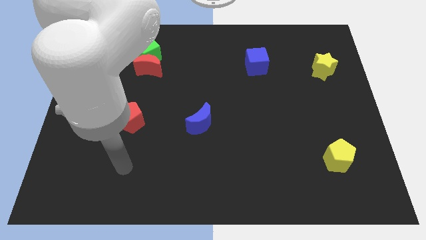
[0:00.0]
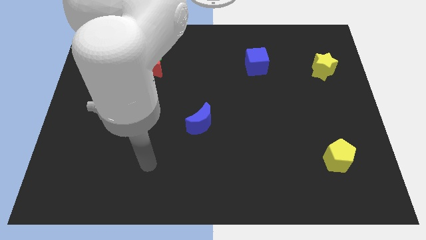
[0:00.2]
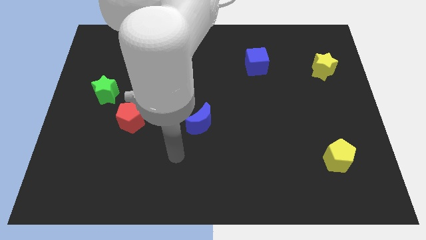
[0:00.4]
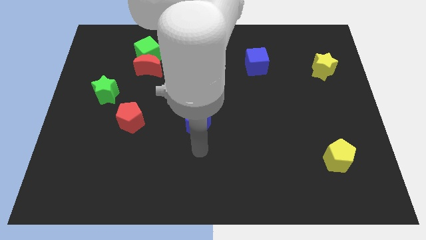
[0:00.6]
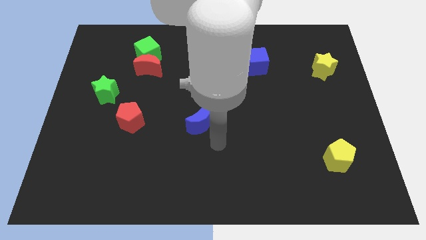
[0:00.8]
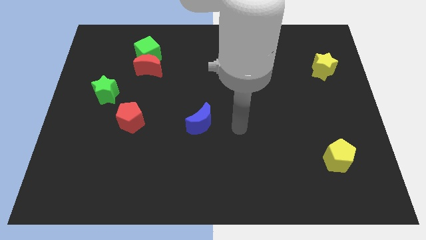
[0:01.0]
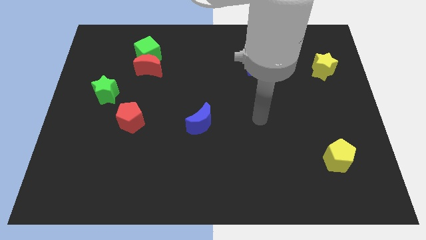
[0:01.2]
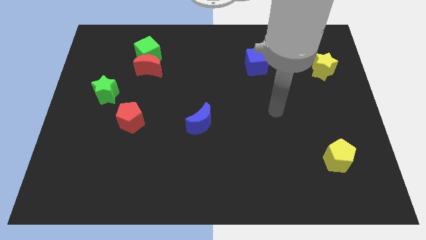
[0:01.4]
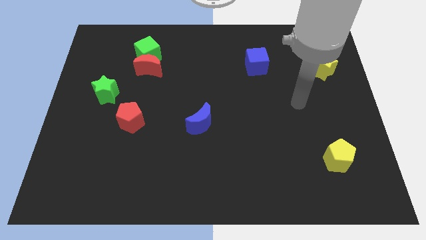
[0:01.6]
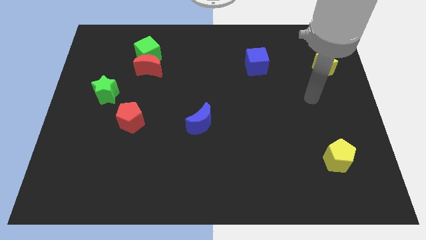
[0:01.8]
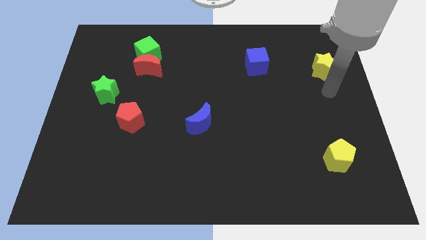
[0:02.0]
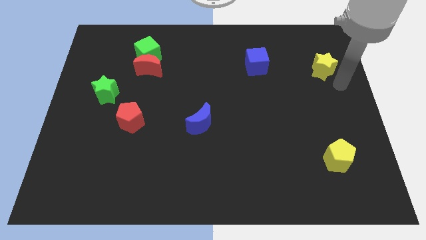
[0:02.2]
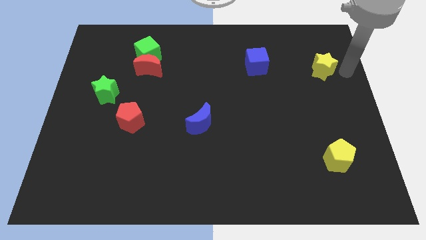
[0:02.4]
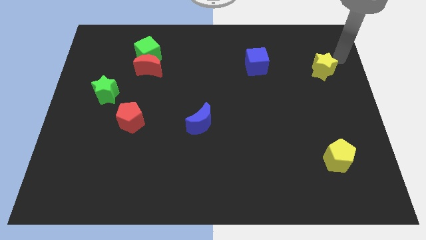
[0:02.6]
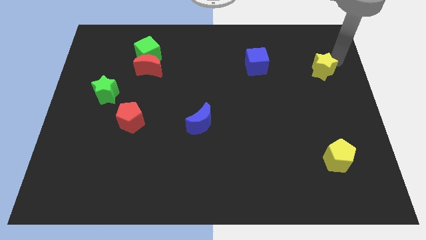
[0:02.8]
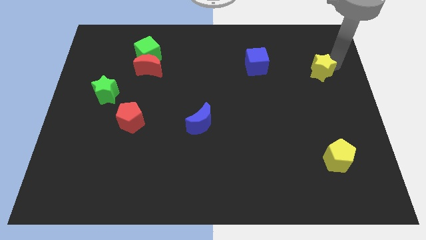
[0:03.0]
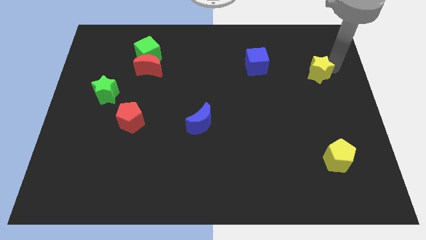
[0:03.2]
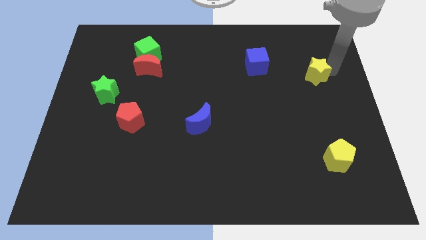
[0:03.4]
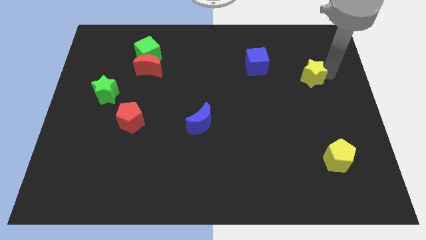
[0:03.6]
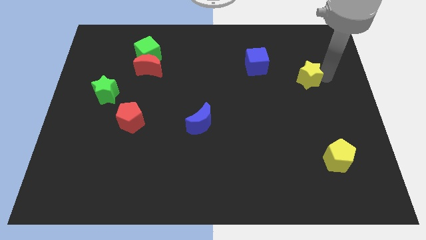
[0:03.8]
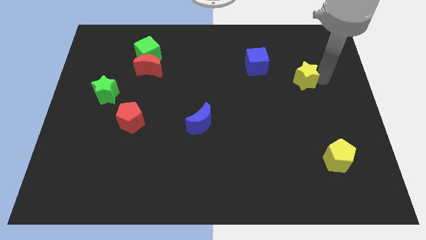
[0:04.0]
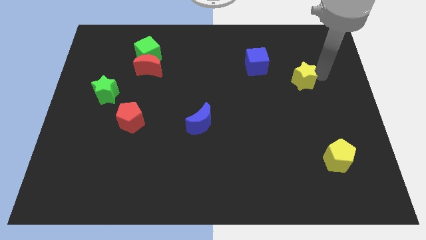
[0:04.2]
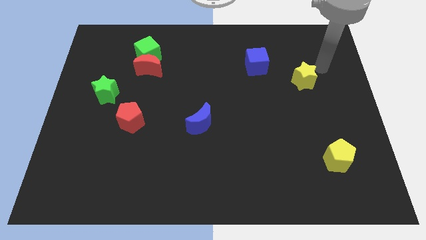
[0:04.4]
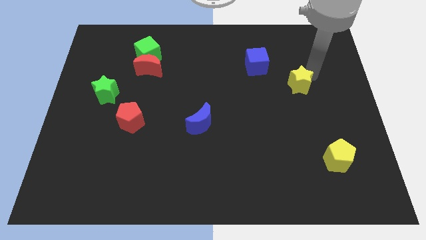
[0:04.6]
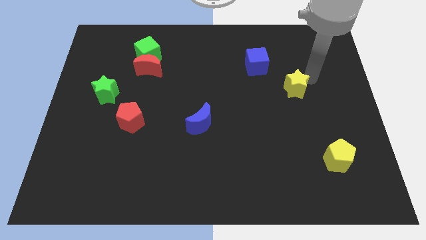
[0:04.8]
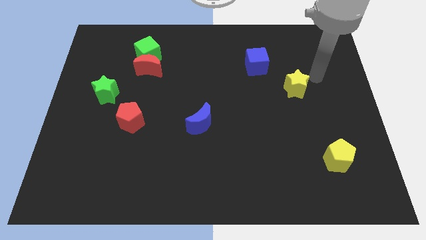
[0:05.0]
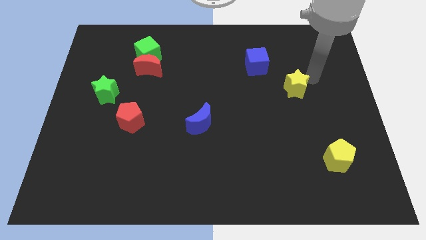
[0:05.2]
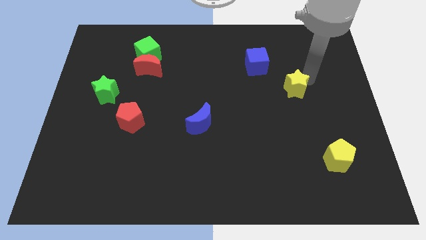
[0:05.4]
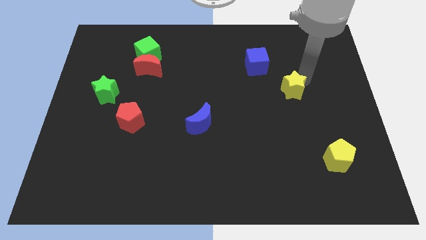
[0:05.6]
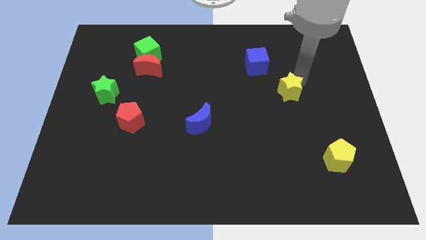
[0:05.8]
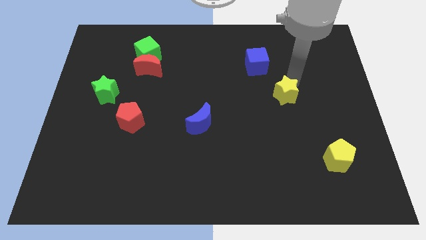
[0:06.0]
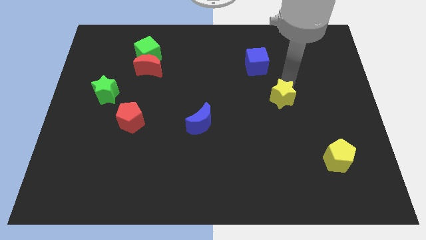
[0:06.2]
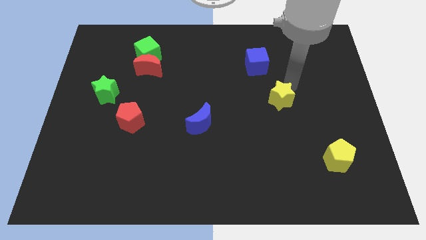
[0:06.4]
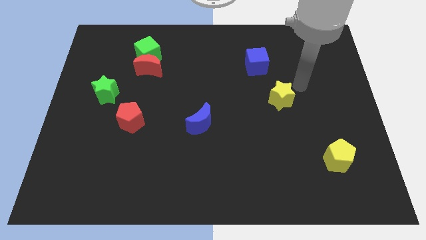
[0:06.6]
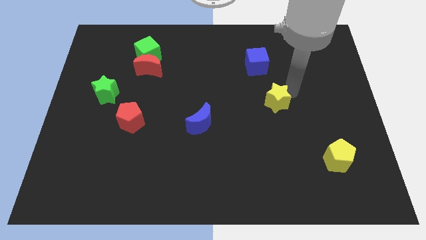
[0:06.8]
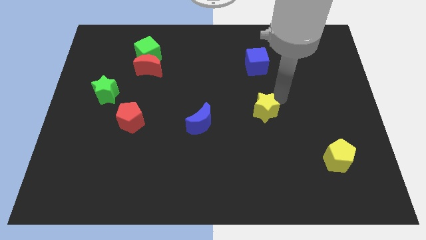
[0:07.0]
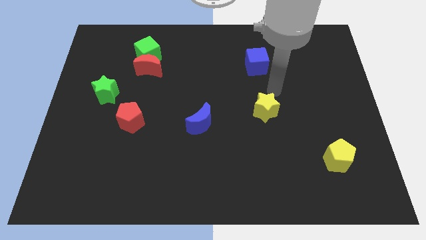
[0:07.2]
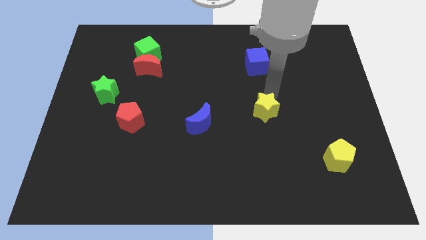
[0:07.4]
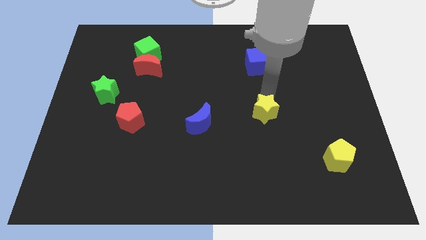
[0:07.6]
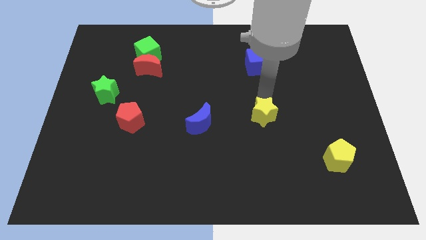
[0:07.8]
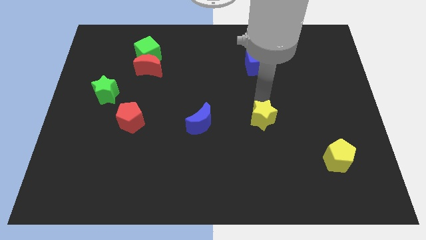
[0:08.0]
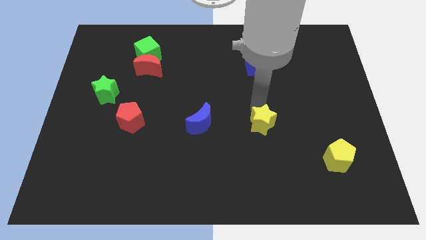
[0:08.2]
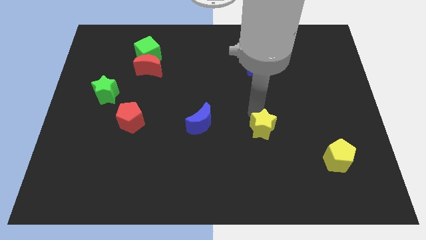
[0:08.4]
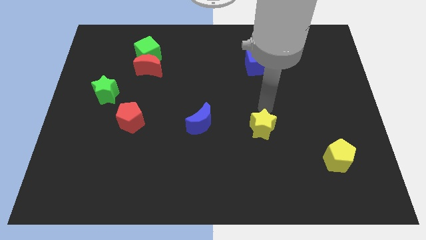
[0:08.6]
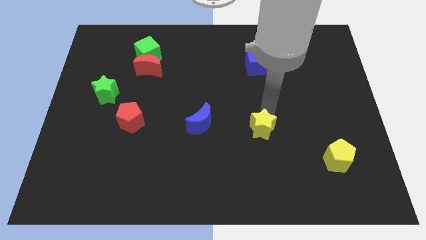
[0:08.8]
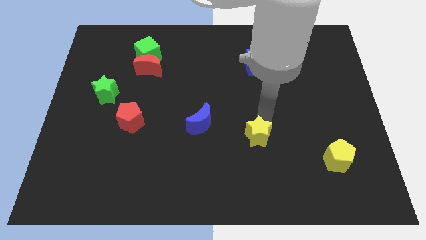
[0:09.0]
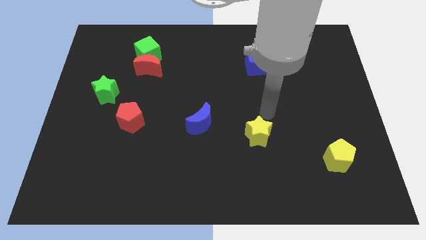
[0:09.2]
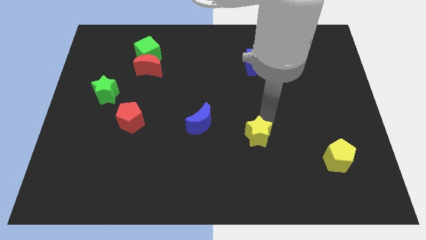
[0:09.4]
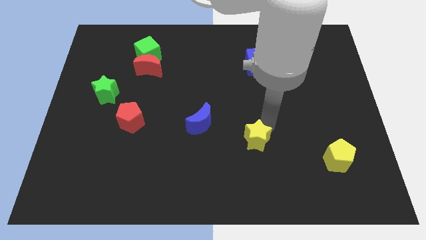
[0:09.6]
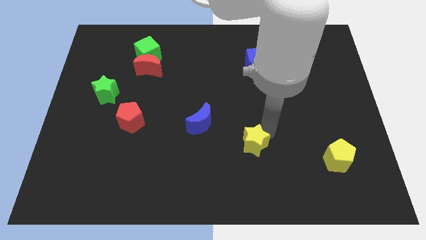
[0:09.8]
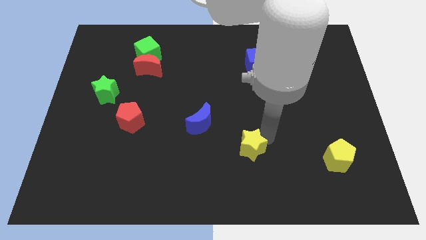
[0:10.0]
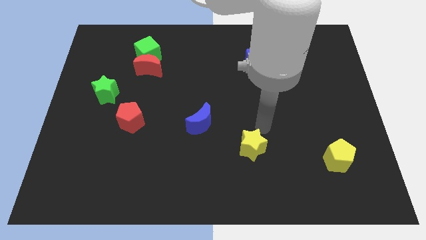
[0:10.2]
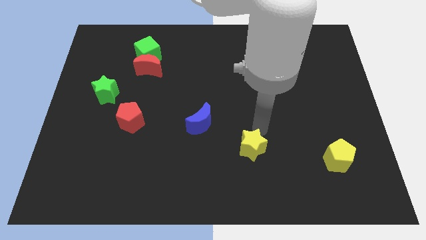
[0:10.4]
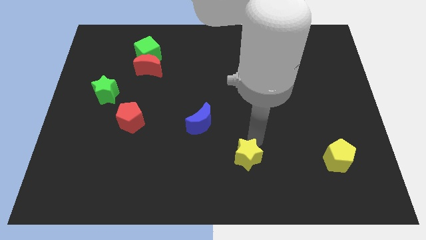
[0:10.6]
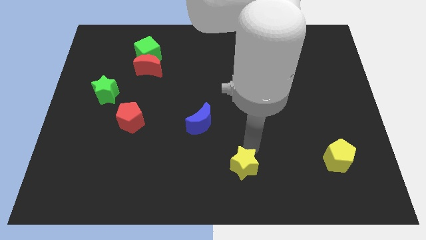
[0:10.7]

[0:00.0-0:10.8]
slide the yellow star to the bottom side
